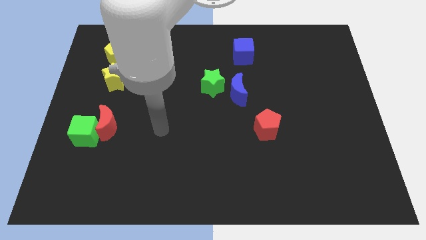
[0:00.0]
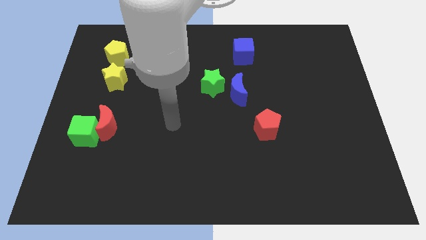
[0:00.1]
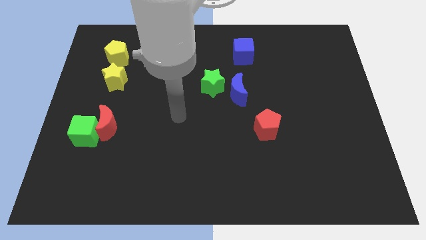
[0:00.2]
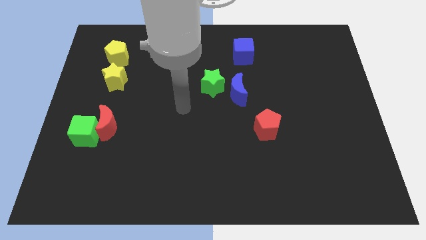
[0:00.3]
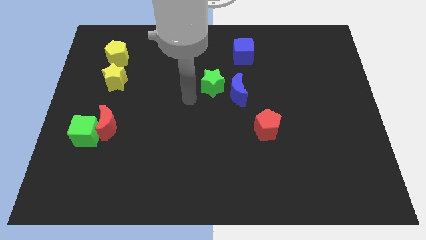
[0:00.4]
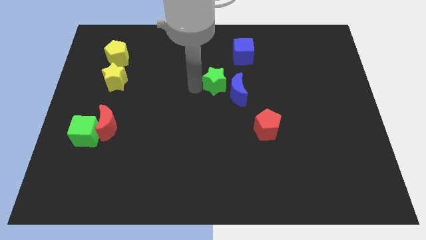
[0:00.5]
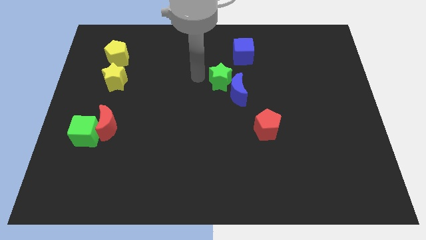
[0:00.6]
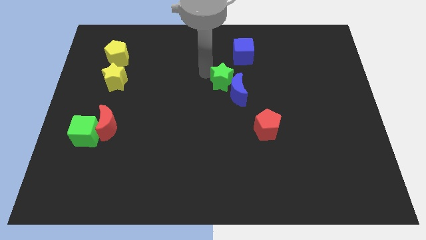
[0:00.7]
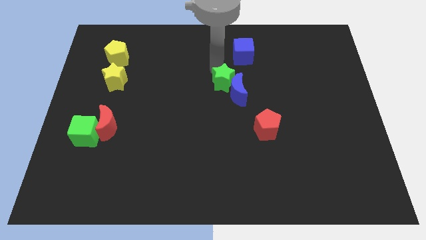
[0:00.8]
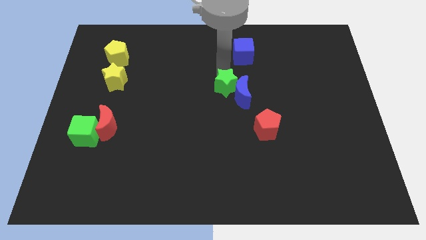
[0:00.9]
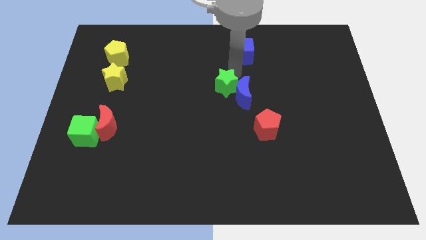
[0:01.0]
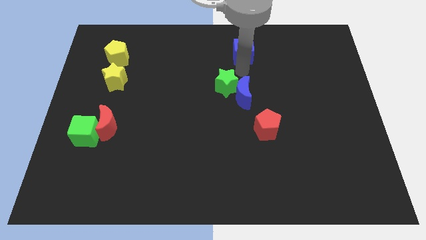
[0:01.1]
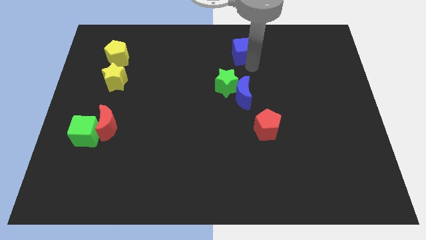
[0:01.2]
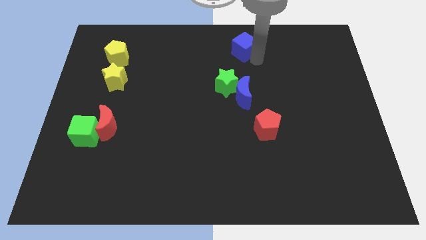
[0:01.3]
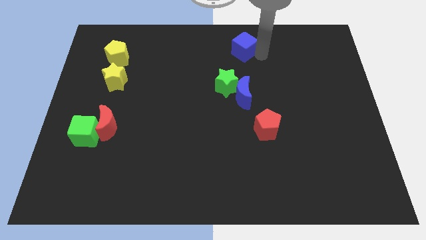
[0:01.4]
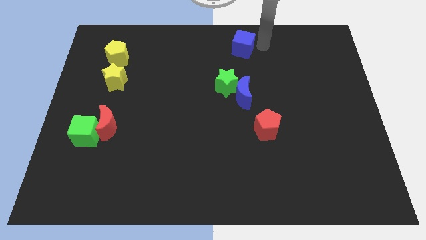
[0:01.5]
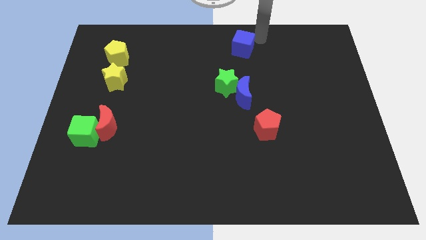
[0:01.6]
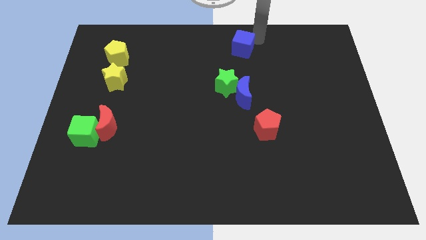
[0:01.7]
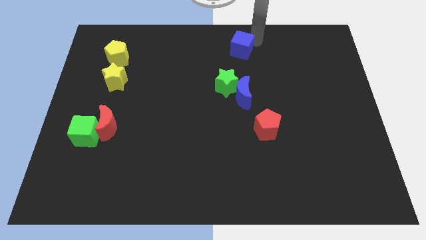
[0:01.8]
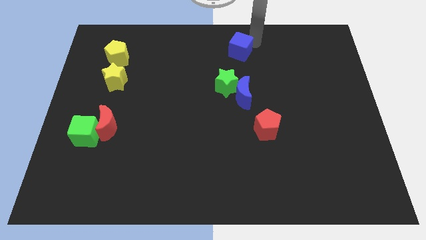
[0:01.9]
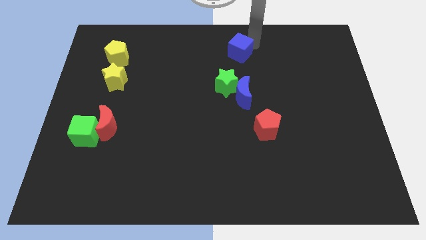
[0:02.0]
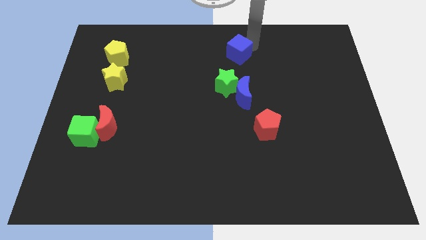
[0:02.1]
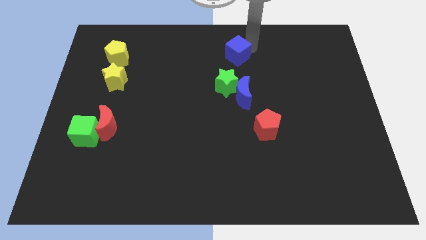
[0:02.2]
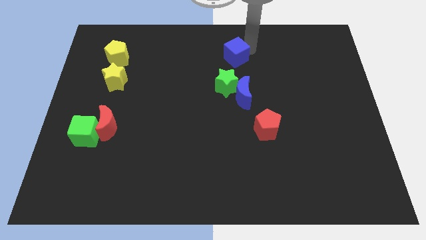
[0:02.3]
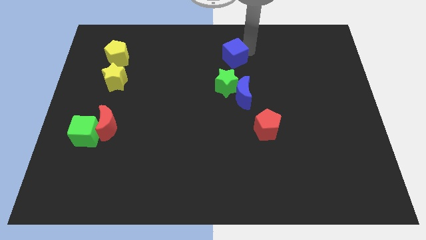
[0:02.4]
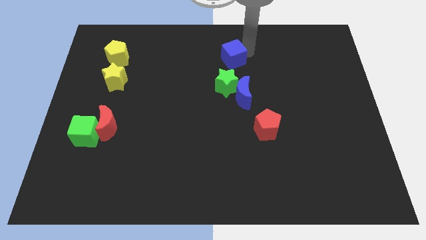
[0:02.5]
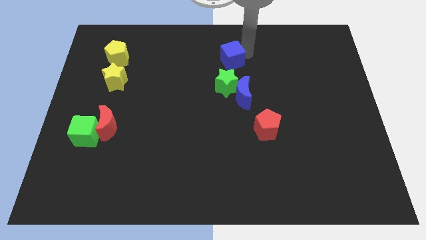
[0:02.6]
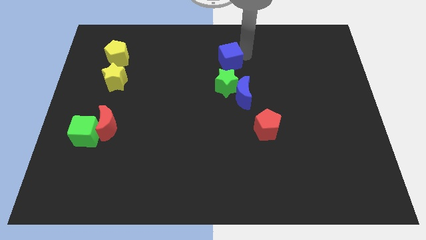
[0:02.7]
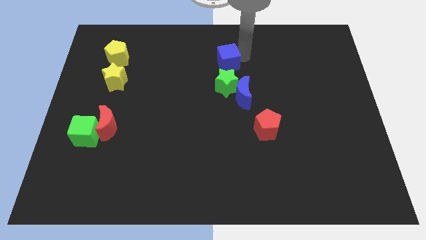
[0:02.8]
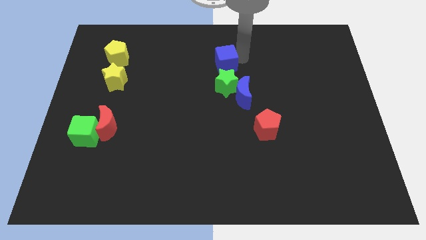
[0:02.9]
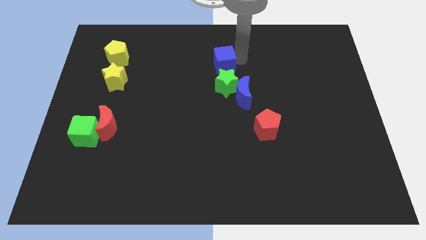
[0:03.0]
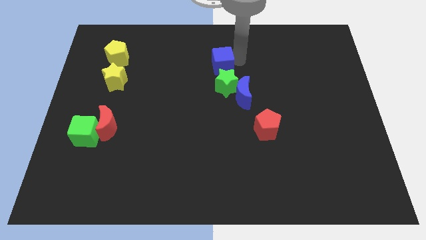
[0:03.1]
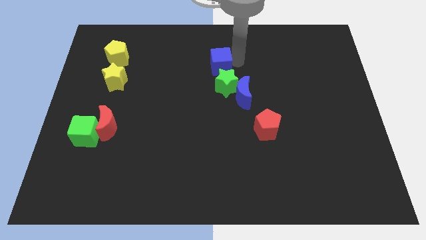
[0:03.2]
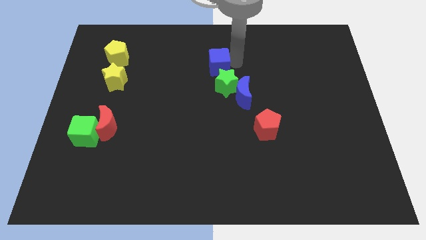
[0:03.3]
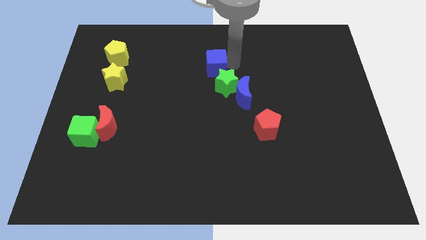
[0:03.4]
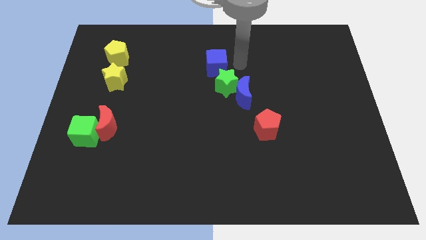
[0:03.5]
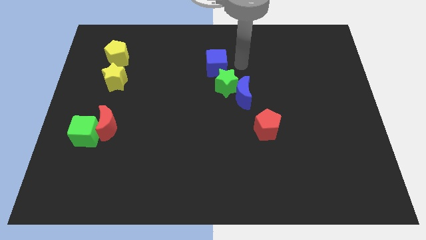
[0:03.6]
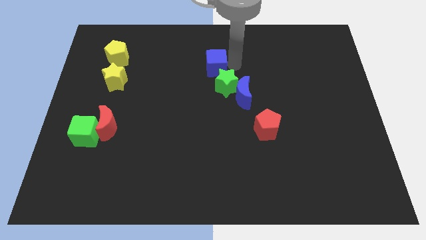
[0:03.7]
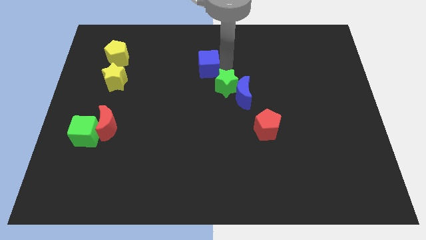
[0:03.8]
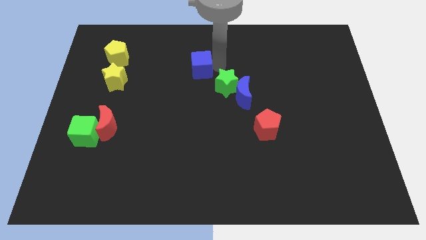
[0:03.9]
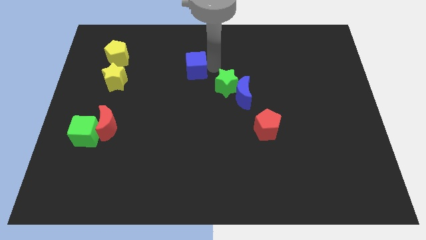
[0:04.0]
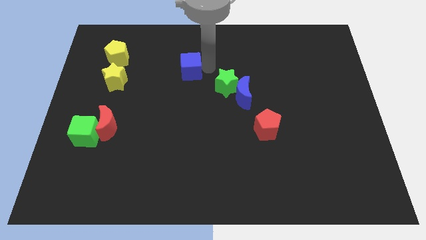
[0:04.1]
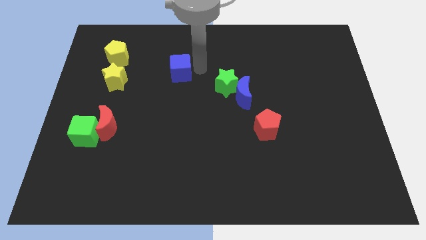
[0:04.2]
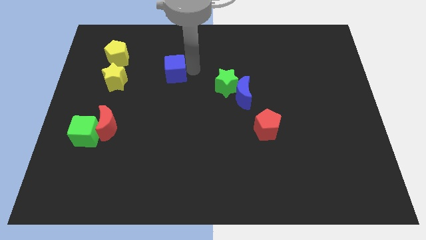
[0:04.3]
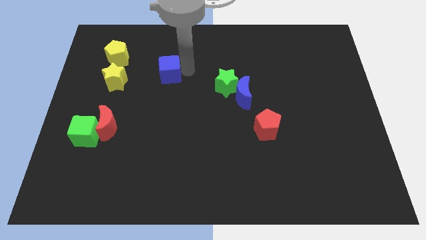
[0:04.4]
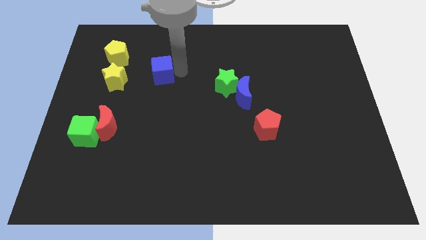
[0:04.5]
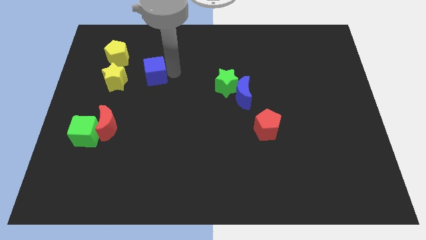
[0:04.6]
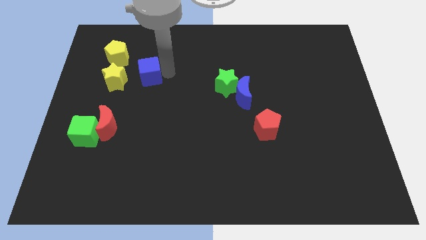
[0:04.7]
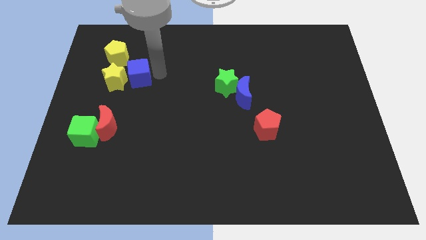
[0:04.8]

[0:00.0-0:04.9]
slide the blue cube close to the yellow star

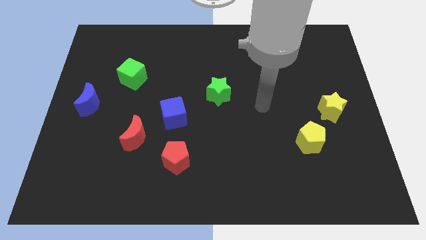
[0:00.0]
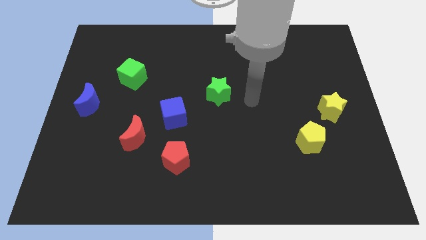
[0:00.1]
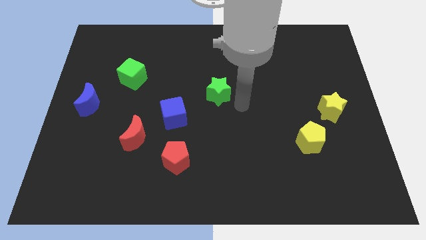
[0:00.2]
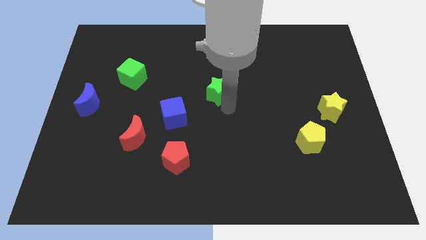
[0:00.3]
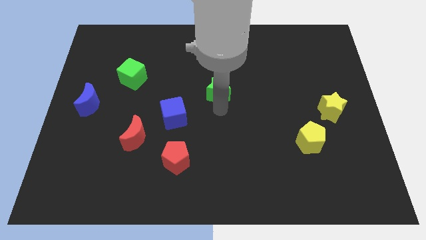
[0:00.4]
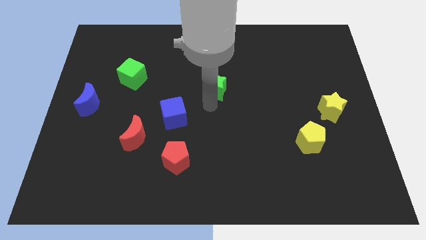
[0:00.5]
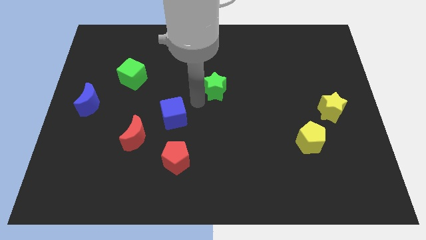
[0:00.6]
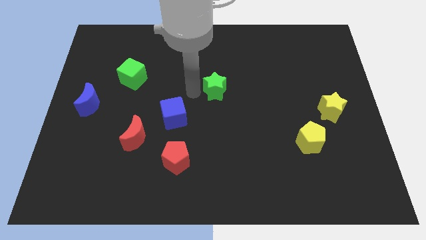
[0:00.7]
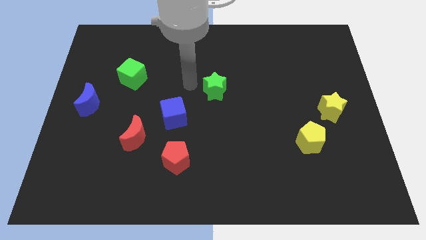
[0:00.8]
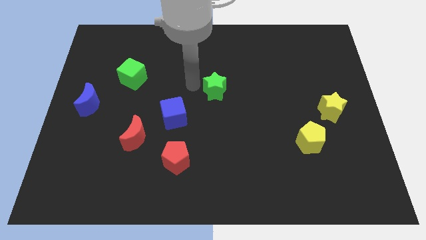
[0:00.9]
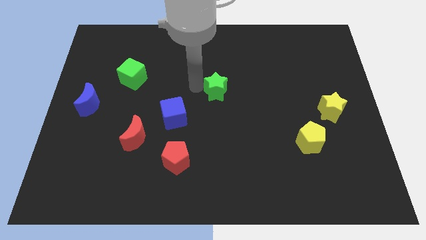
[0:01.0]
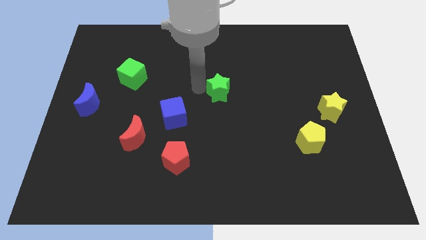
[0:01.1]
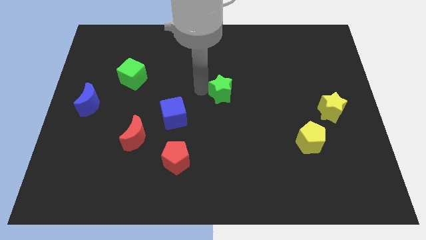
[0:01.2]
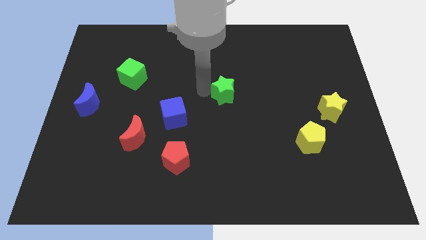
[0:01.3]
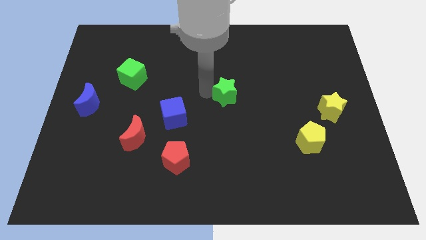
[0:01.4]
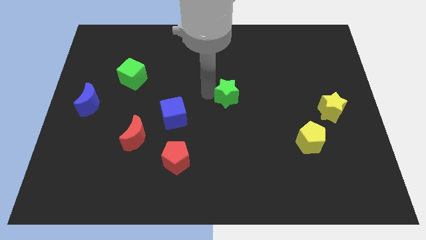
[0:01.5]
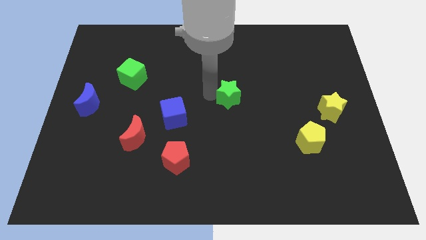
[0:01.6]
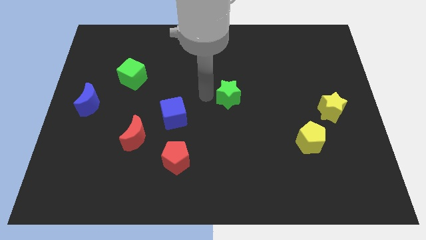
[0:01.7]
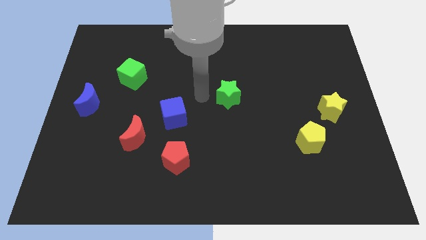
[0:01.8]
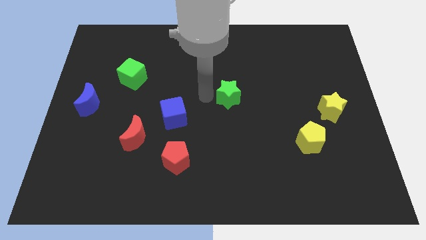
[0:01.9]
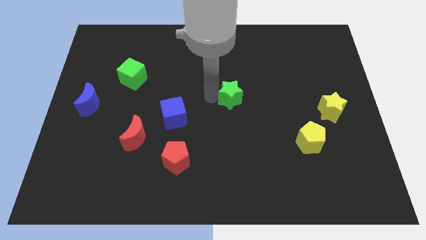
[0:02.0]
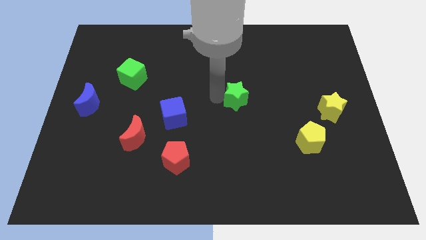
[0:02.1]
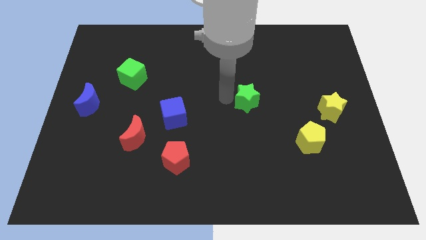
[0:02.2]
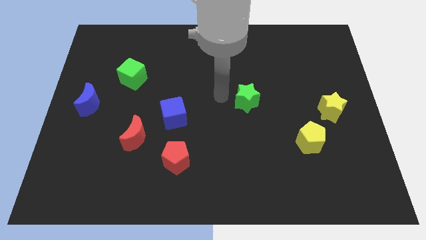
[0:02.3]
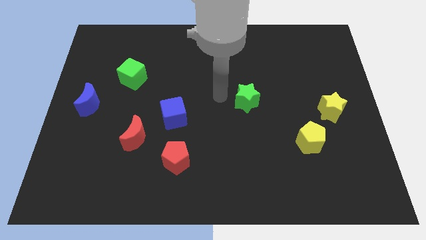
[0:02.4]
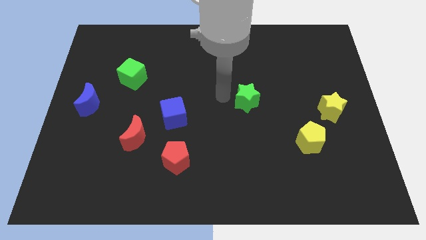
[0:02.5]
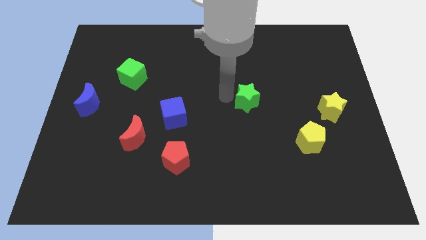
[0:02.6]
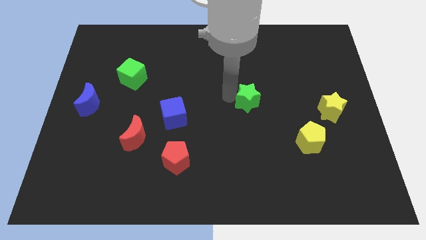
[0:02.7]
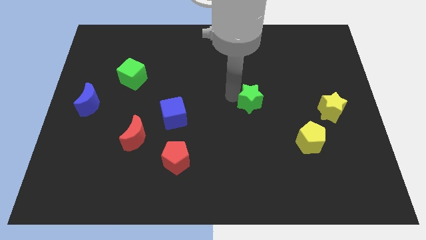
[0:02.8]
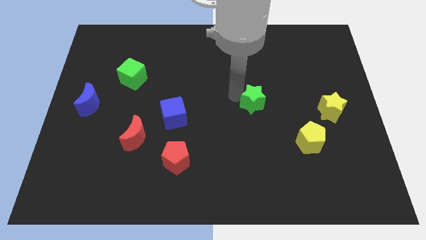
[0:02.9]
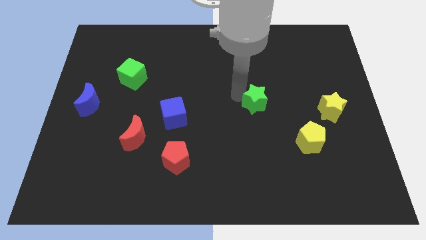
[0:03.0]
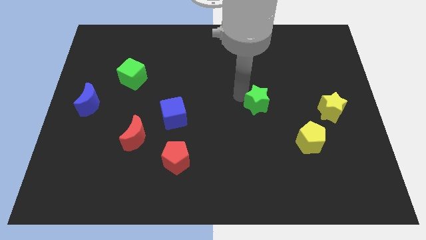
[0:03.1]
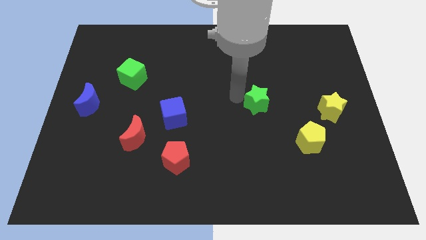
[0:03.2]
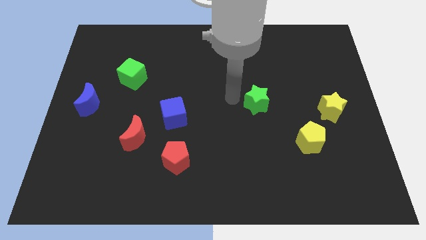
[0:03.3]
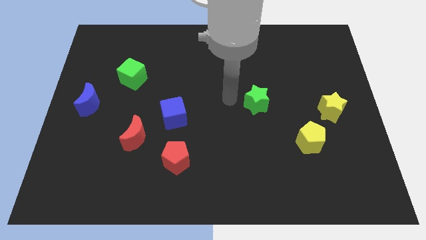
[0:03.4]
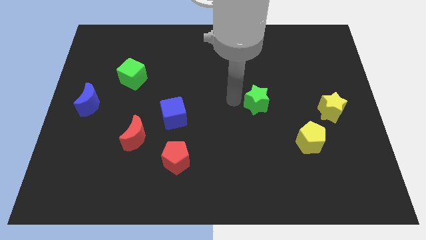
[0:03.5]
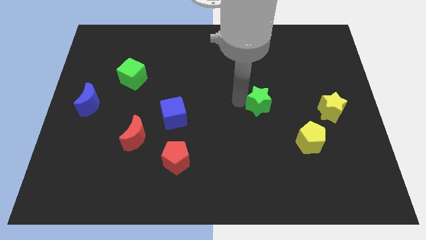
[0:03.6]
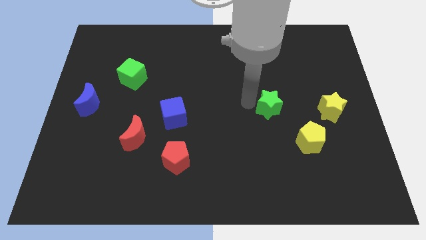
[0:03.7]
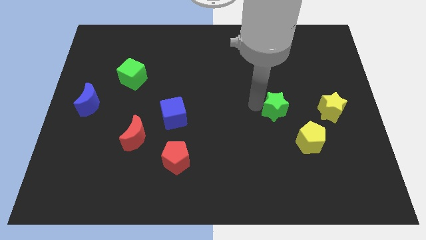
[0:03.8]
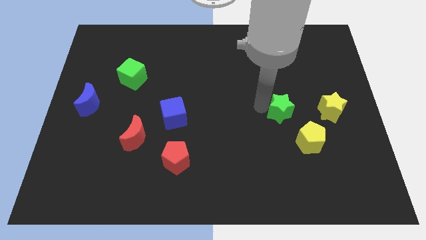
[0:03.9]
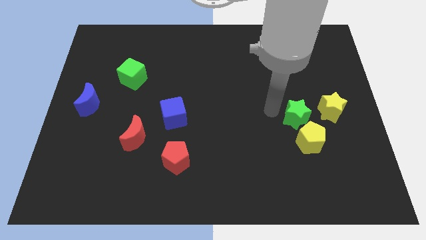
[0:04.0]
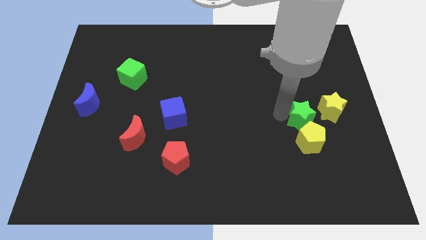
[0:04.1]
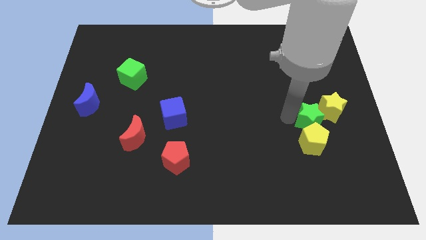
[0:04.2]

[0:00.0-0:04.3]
put the green star close to the yellow star
